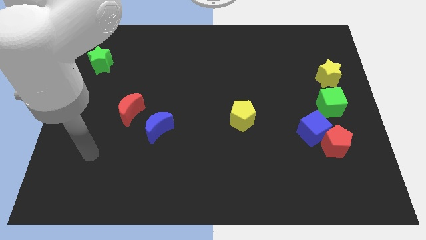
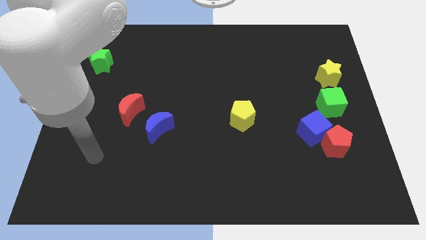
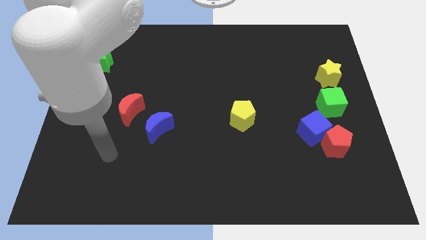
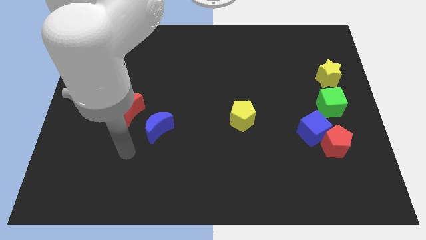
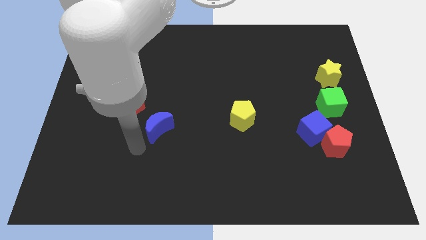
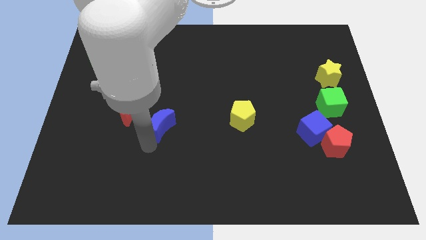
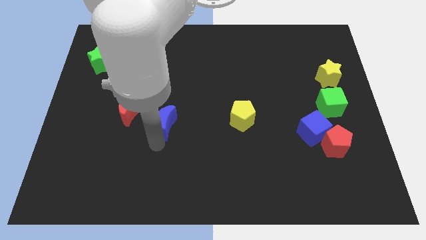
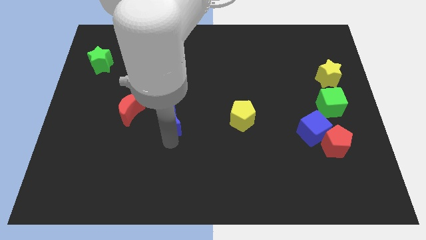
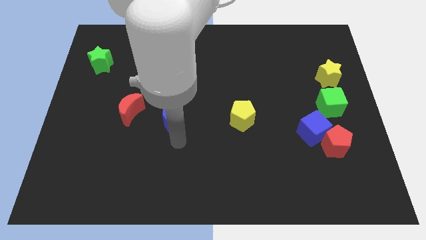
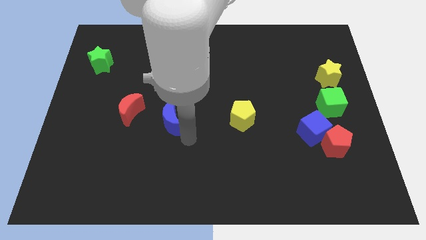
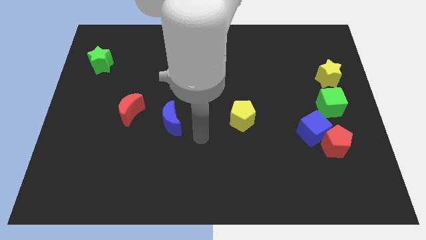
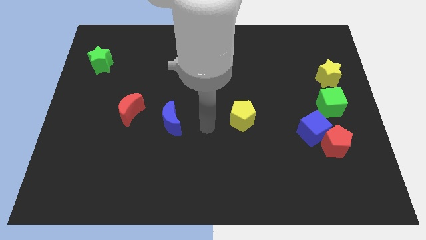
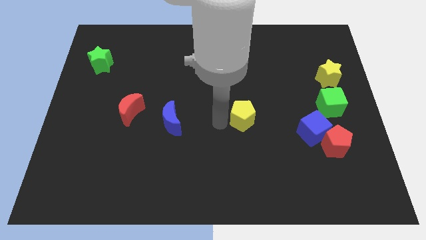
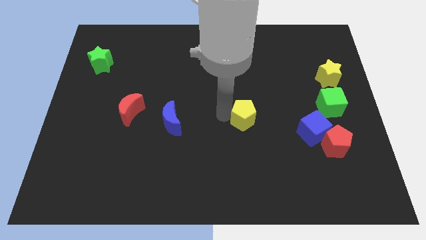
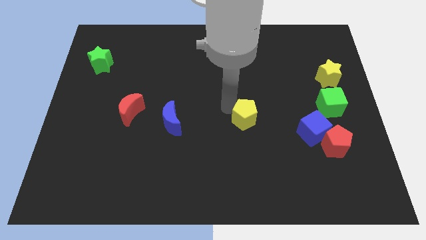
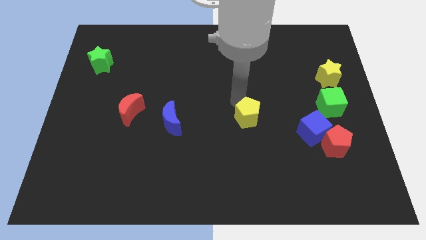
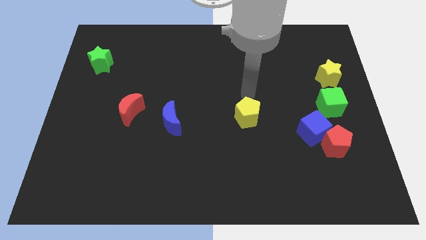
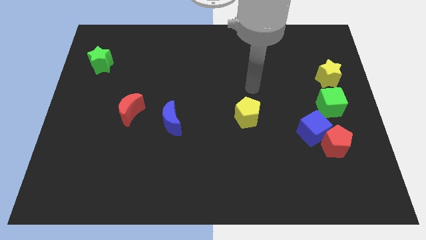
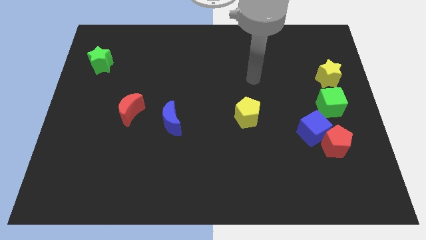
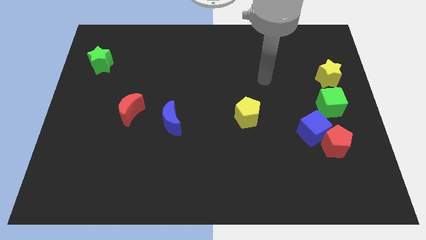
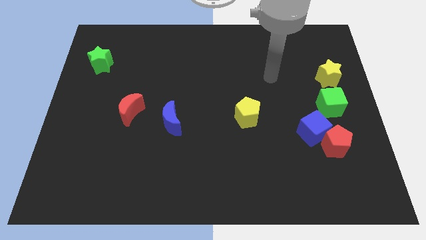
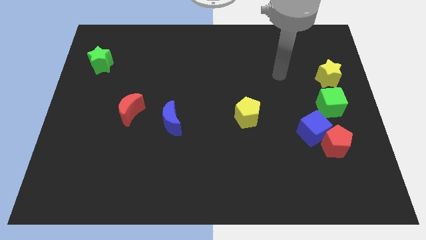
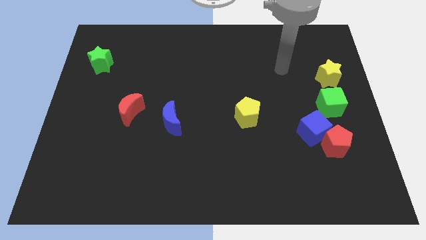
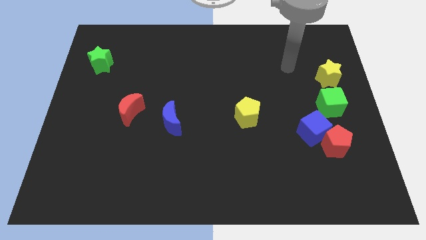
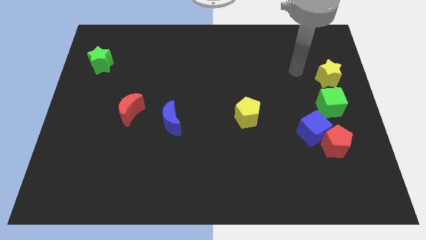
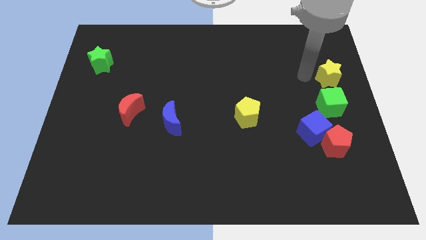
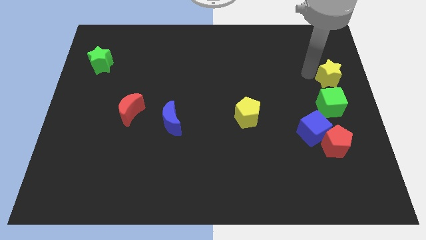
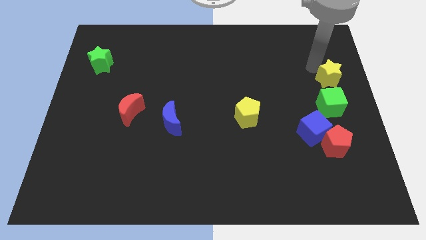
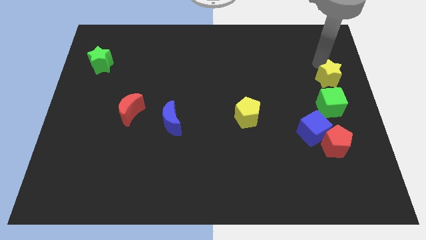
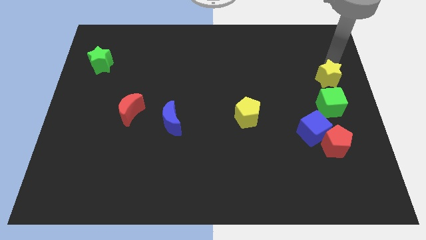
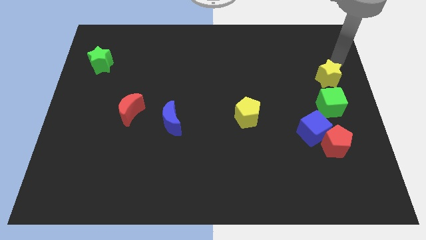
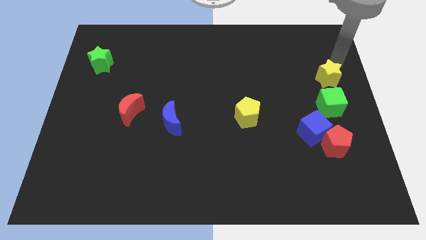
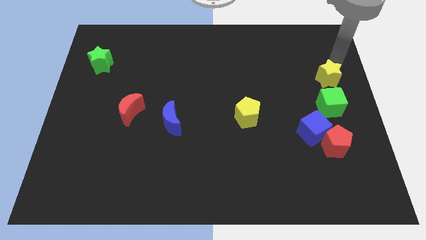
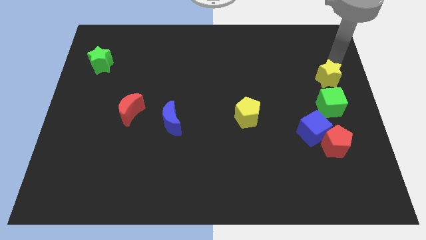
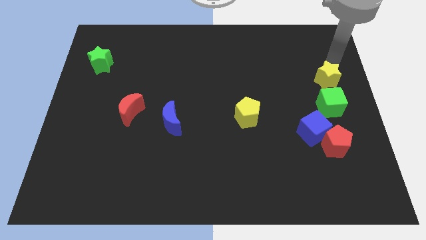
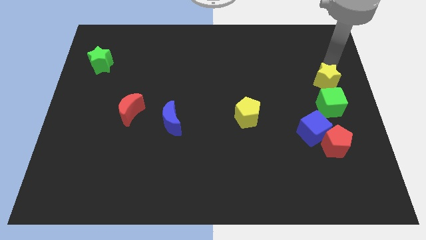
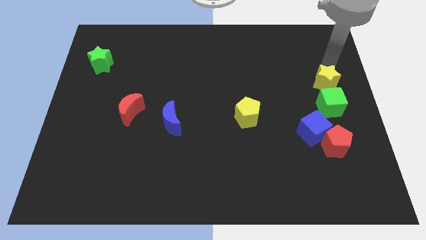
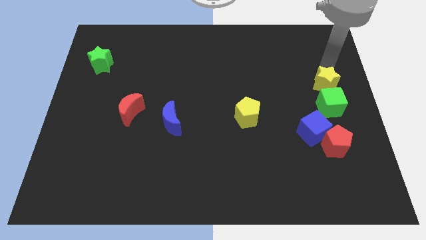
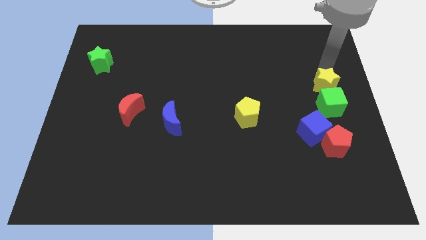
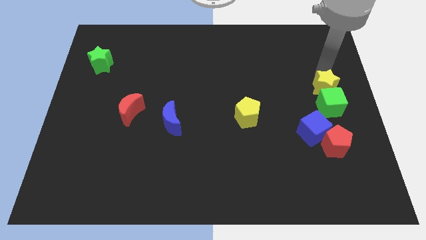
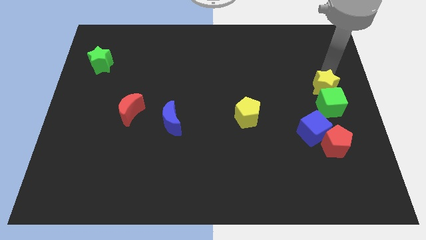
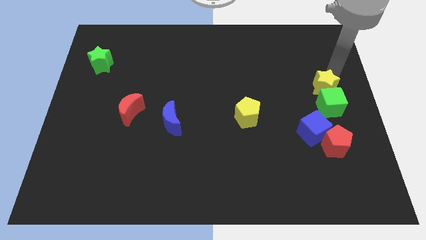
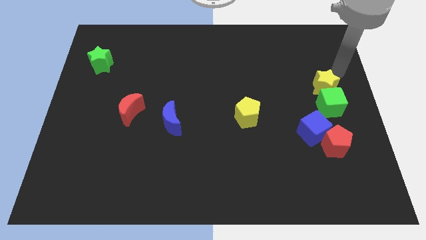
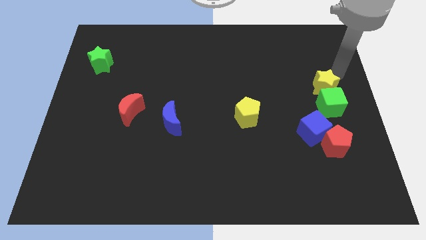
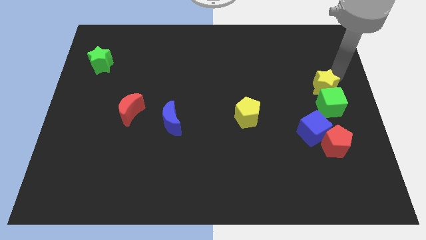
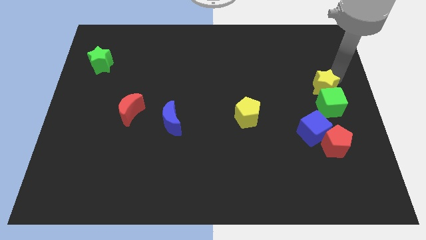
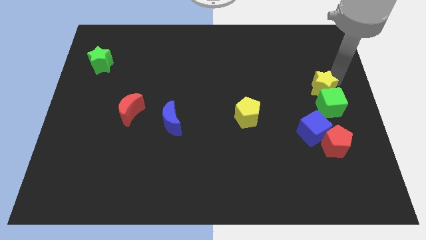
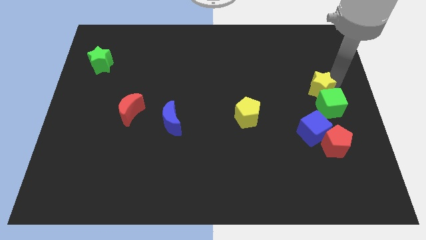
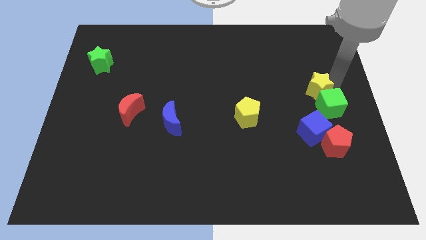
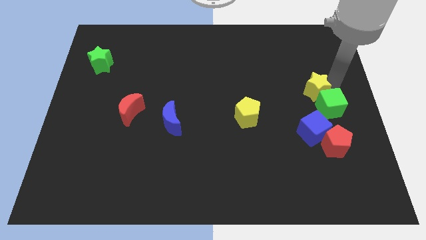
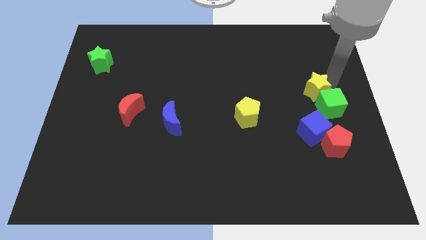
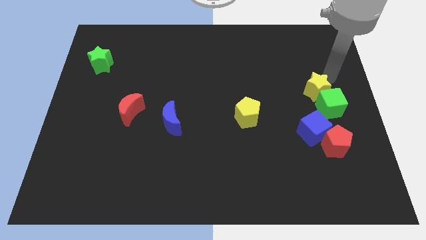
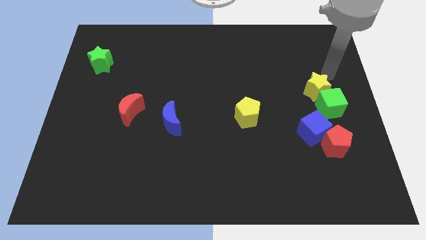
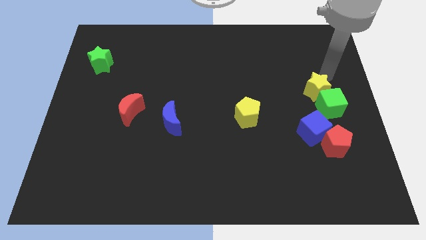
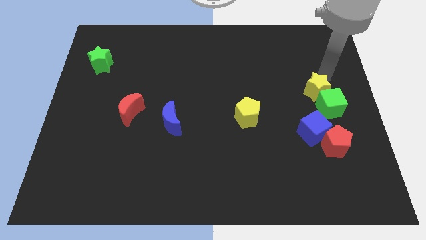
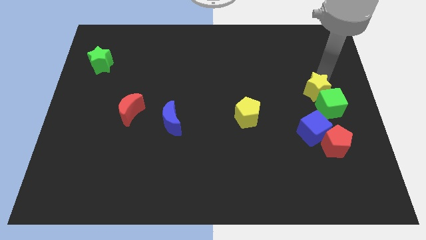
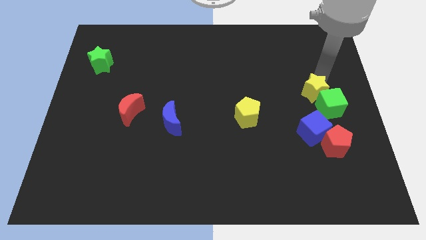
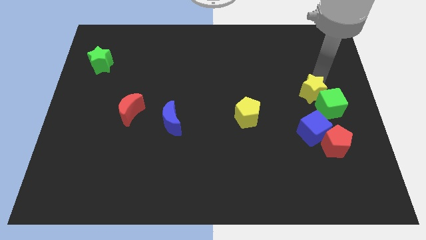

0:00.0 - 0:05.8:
push the yellow star slightly down and then to the left

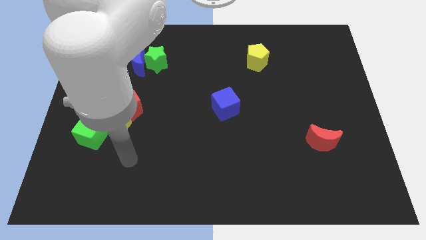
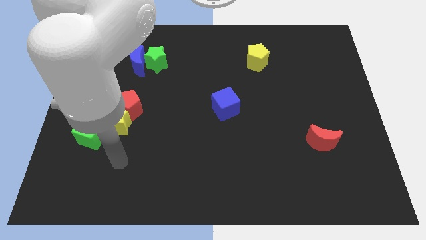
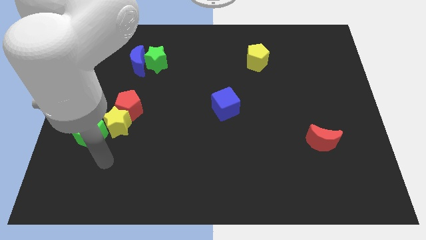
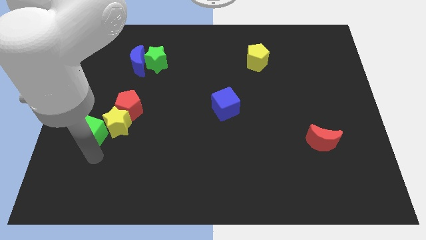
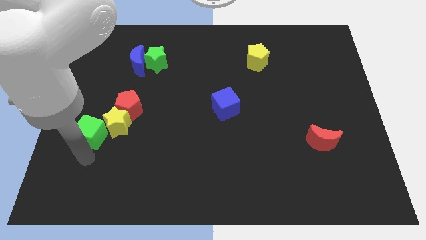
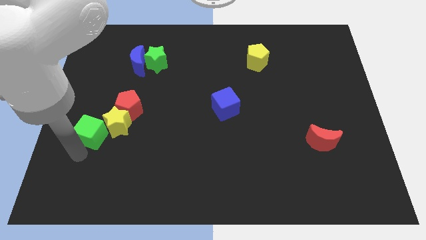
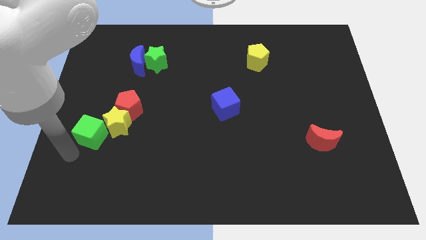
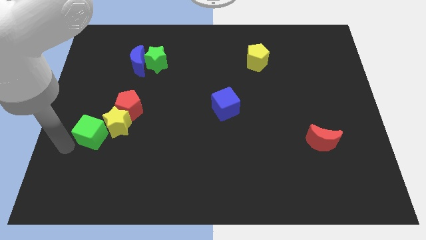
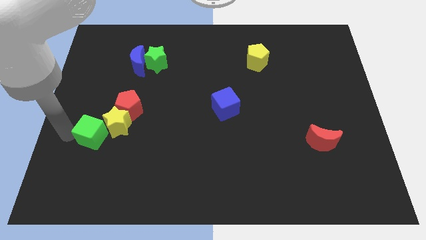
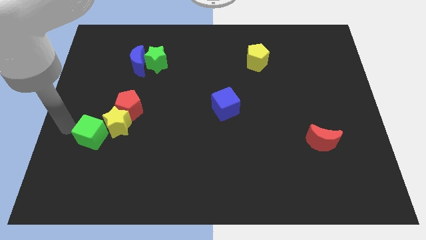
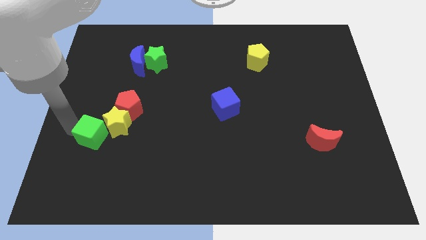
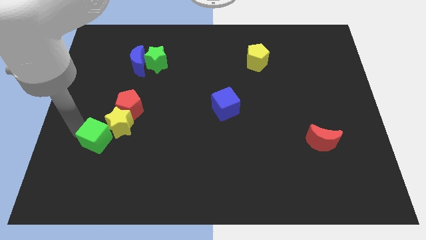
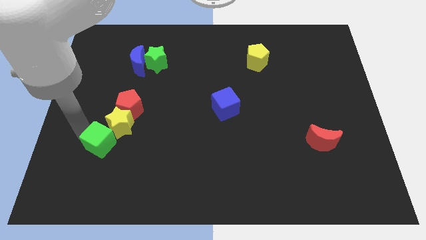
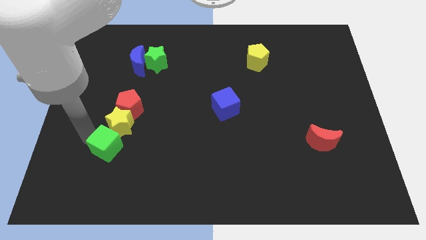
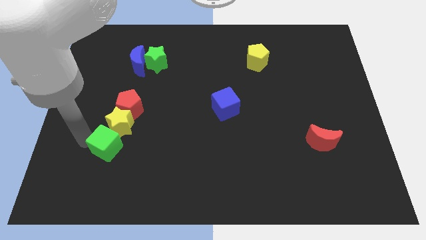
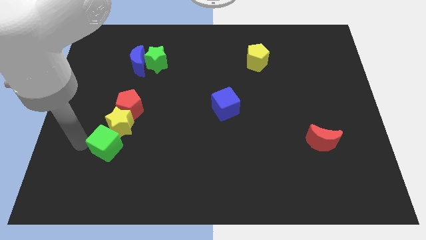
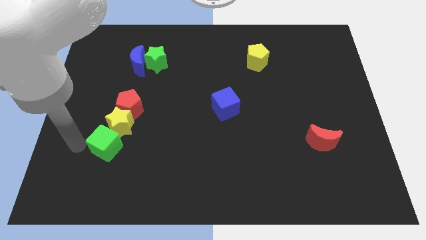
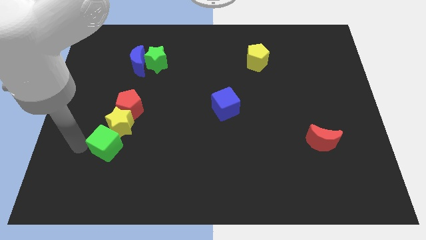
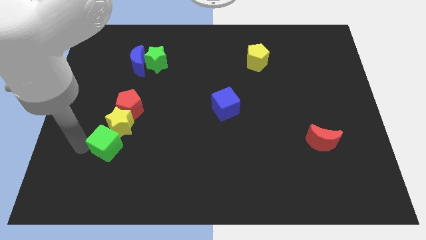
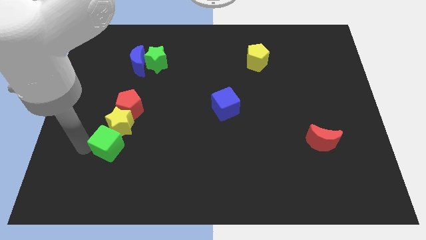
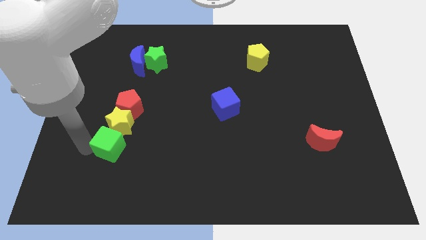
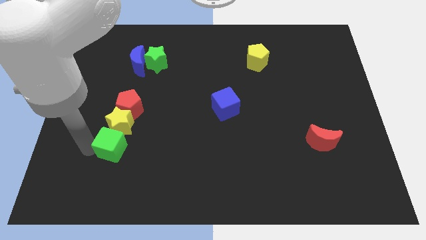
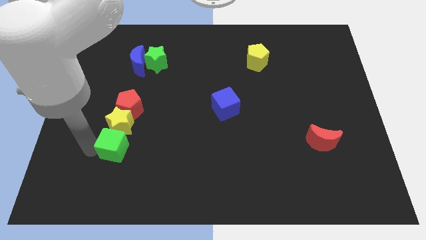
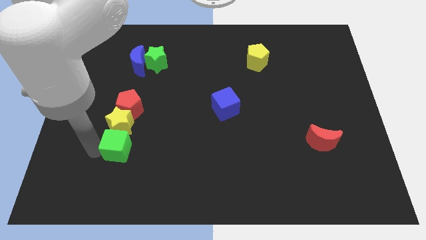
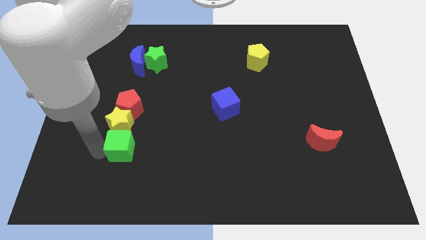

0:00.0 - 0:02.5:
slide the green cube a little to the right
